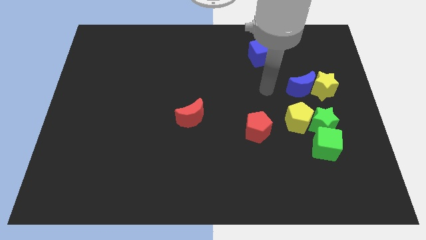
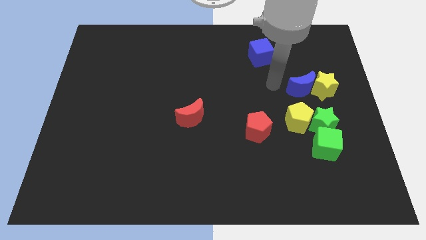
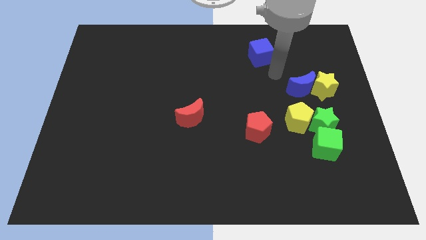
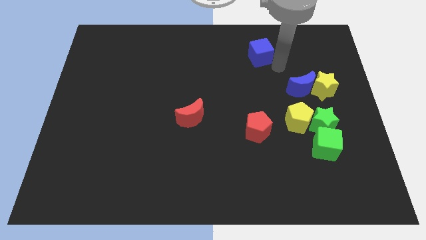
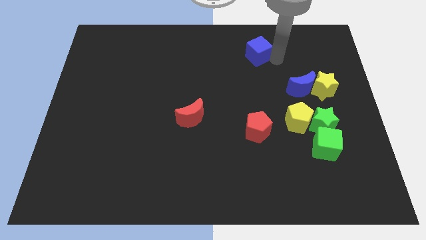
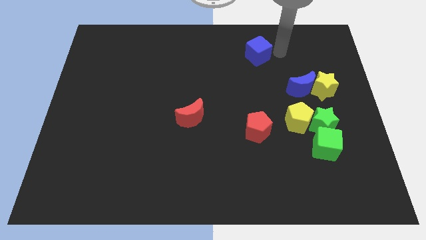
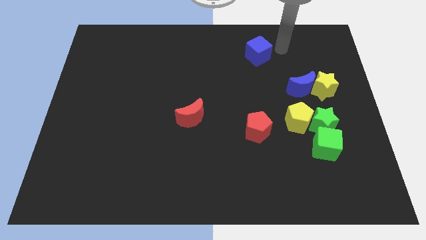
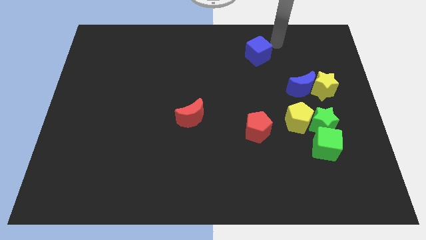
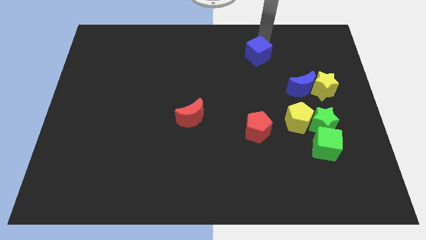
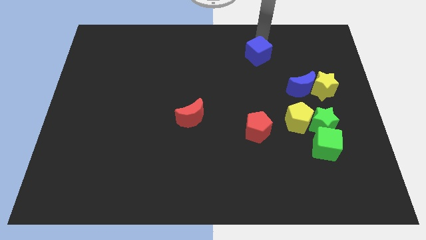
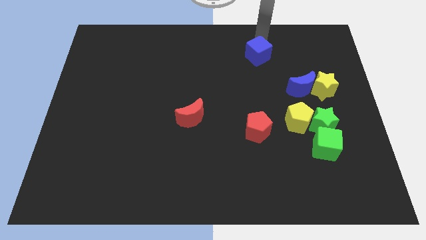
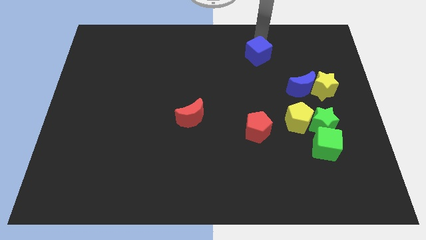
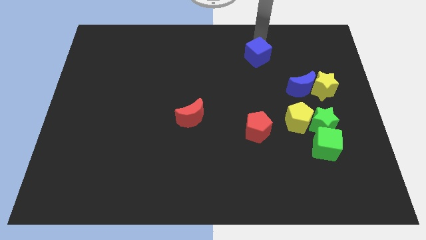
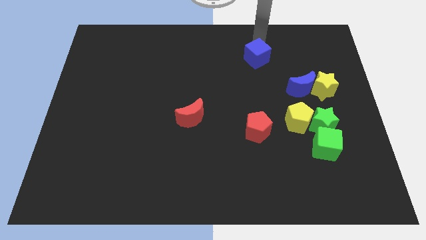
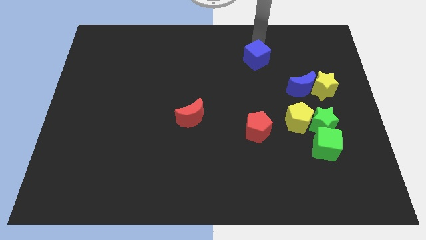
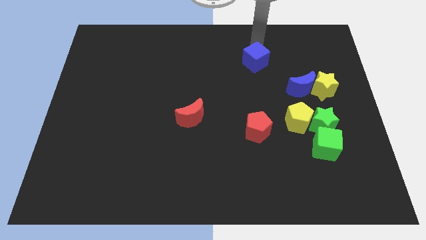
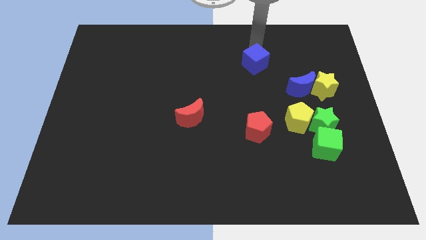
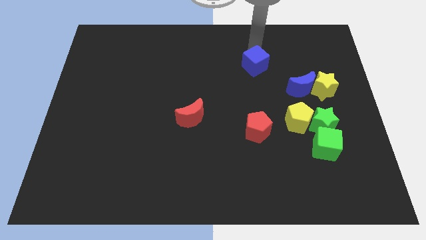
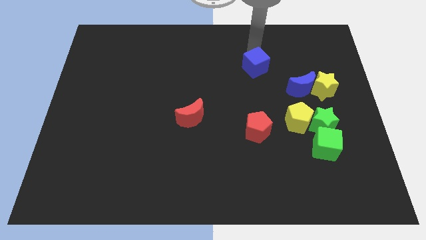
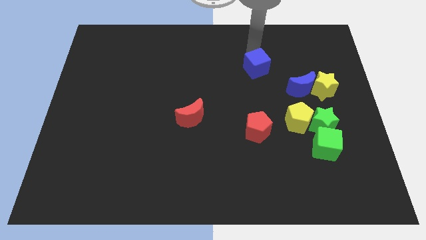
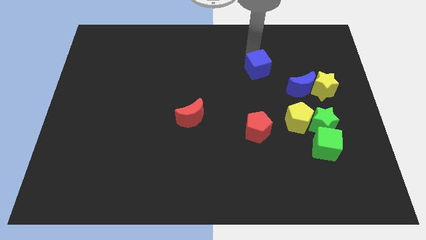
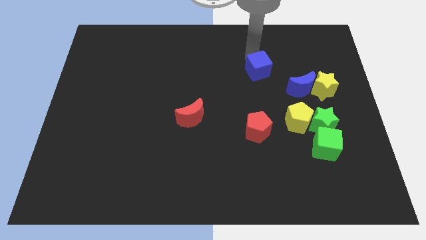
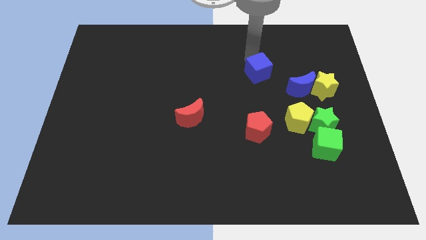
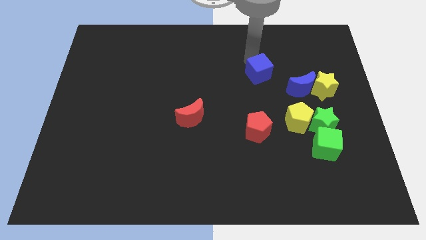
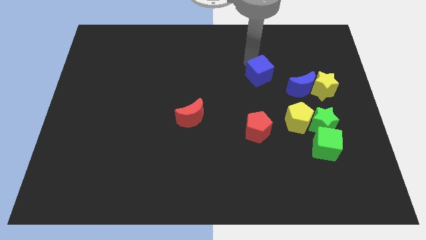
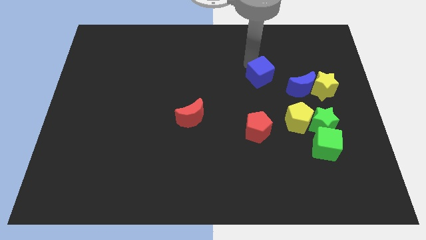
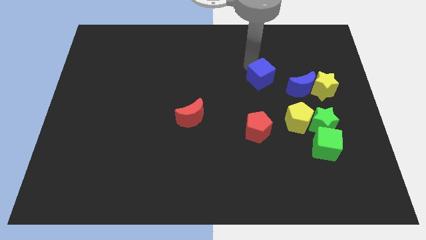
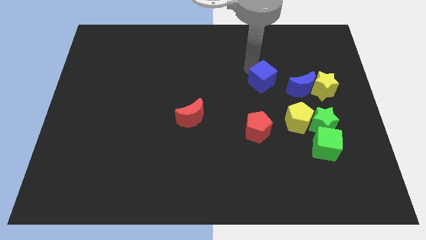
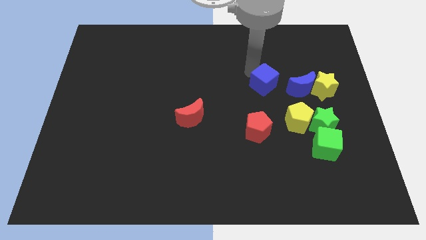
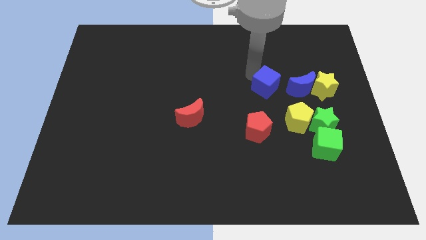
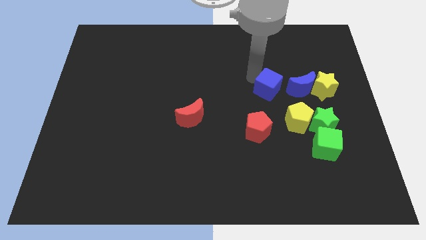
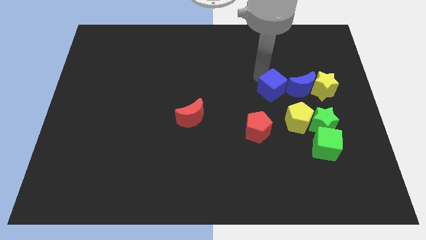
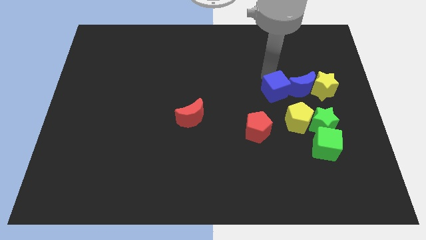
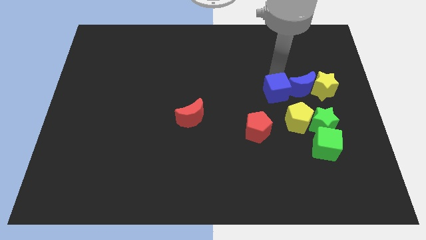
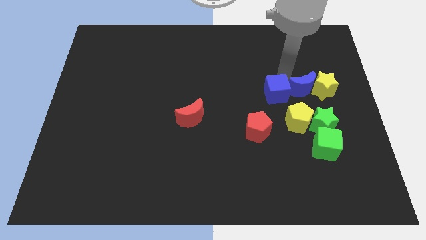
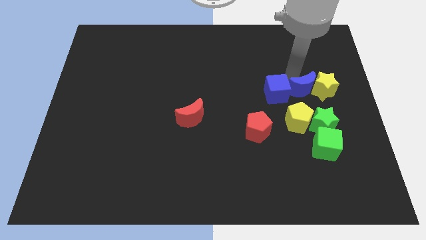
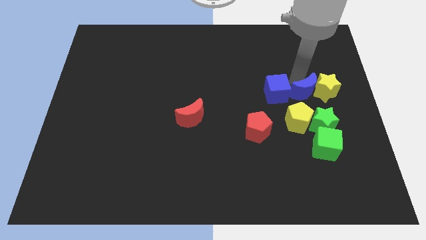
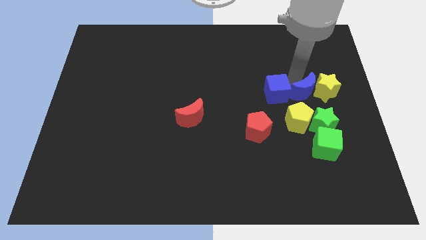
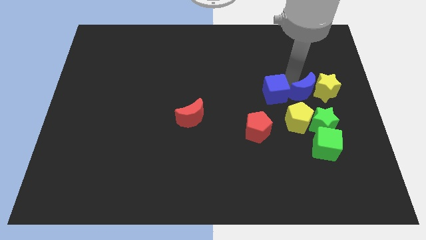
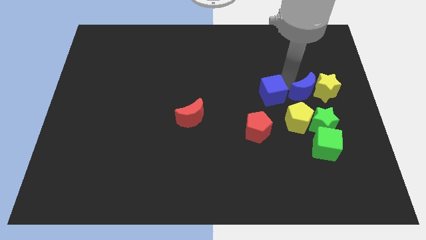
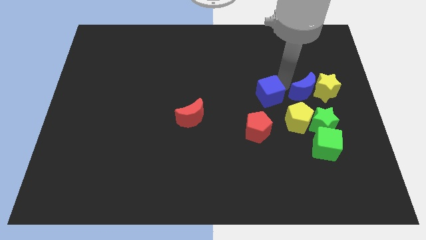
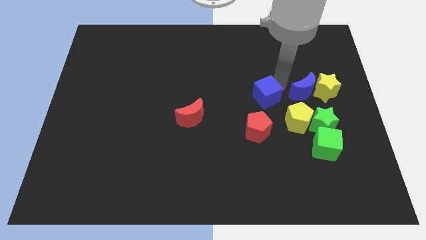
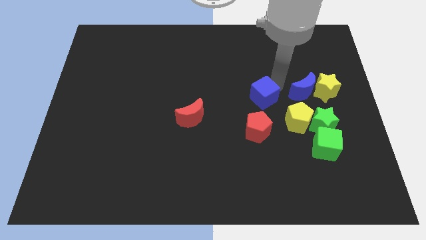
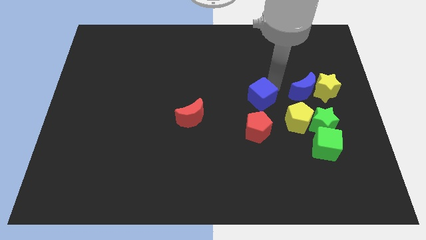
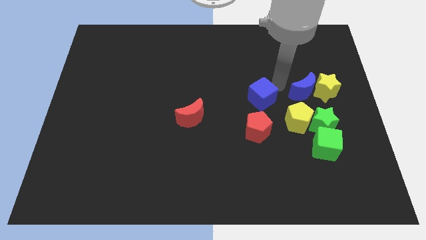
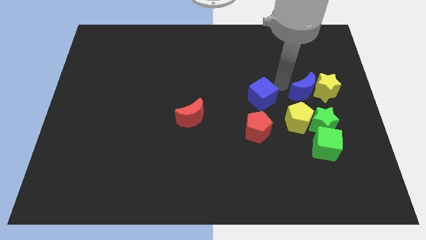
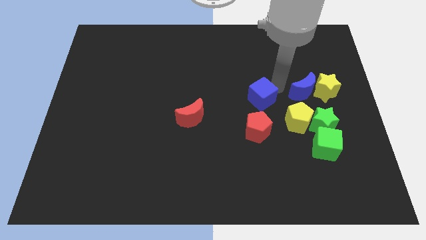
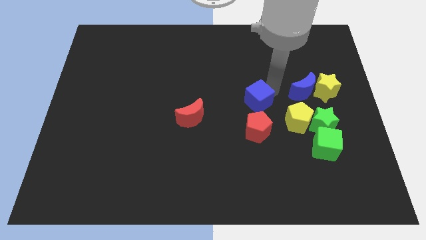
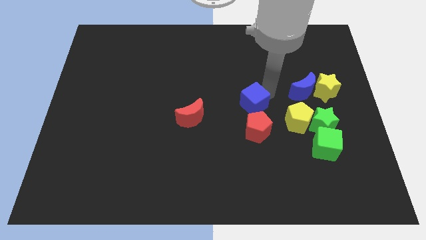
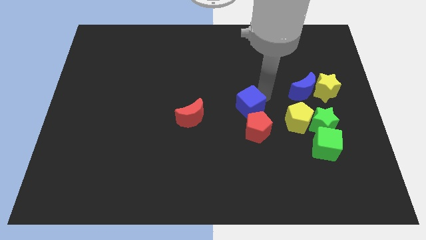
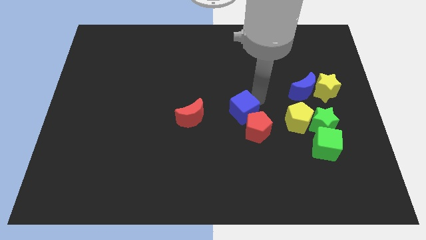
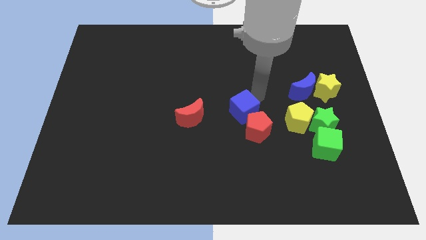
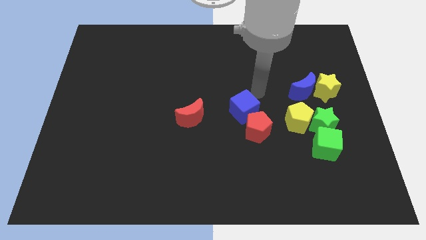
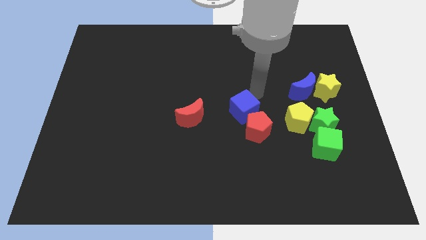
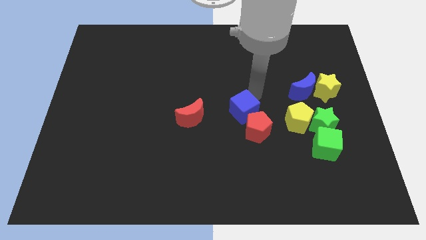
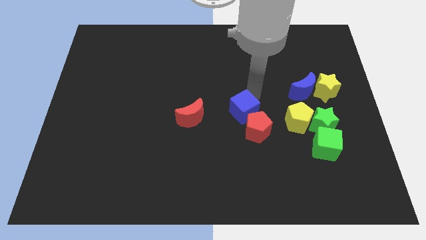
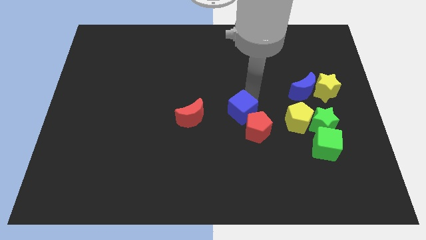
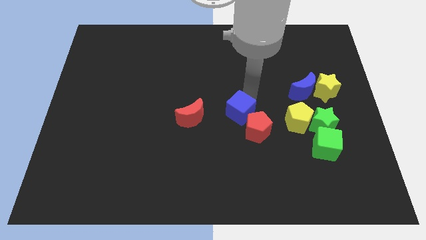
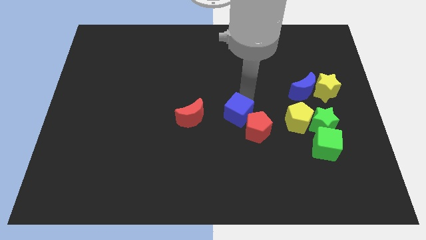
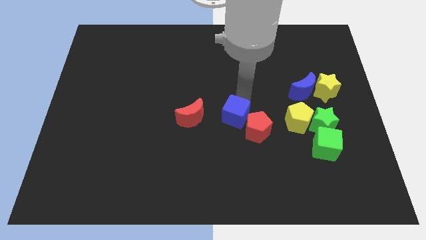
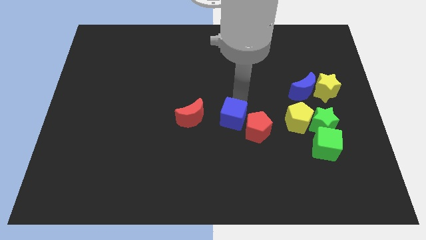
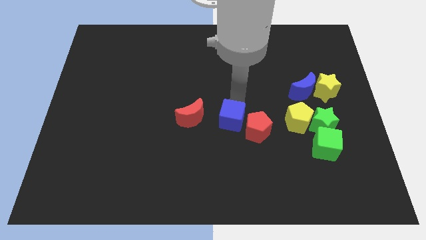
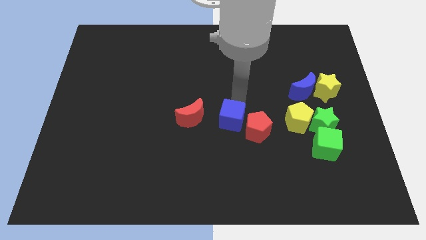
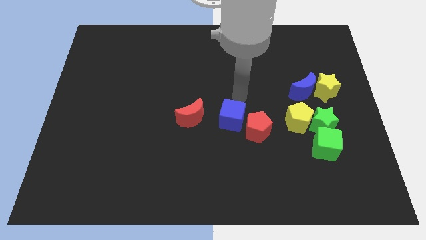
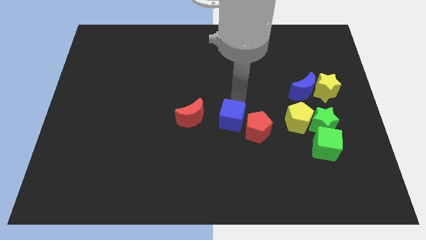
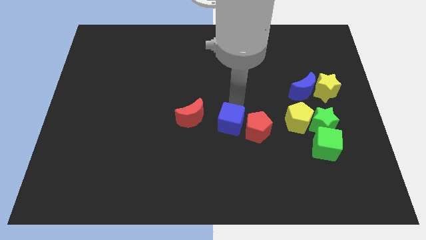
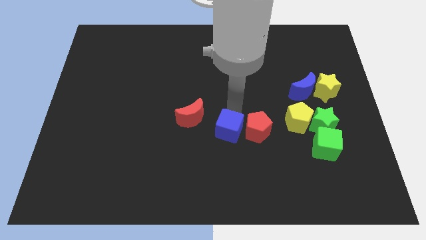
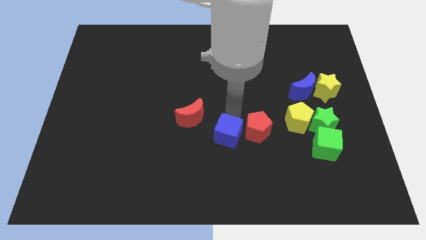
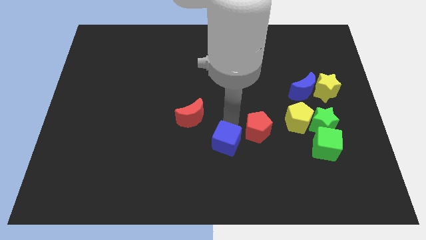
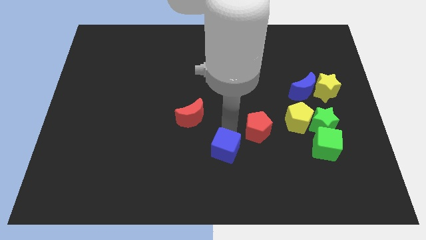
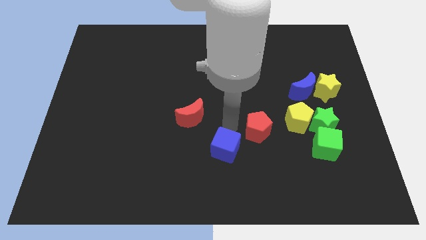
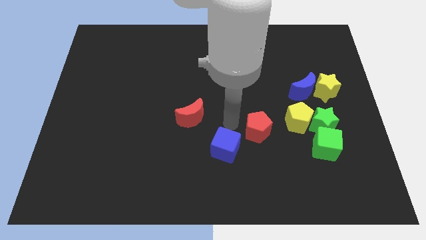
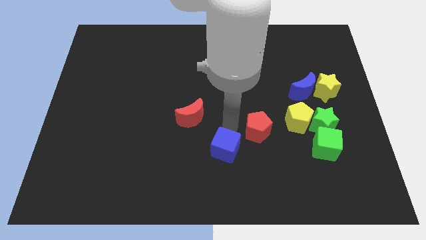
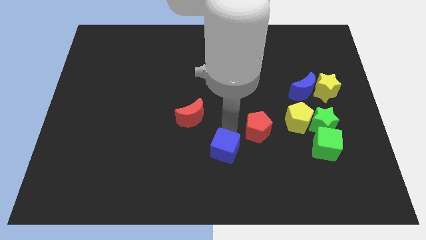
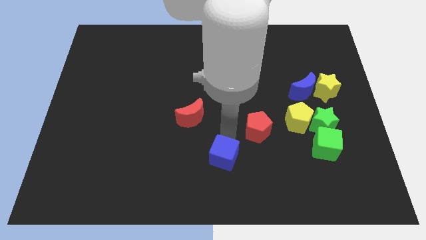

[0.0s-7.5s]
move the blue cube to the bottom
